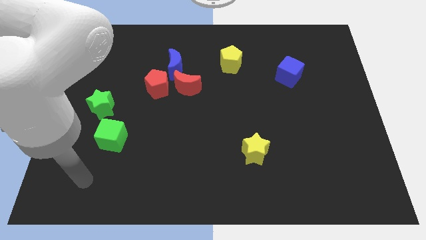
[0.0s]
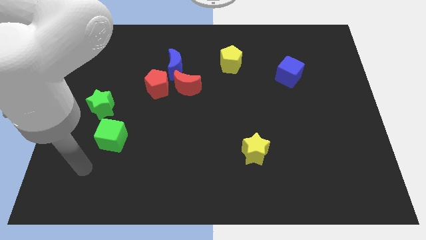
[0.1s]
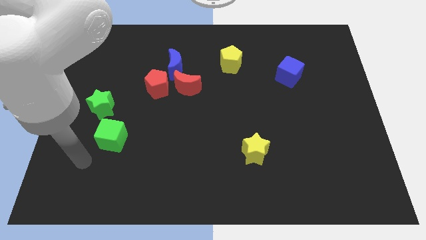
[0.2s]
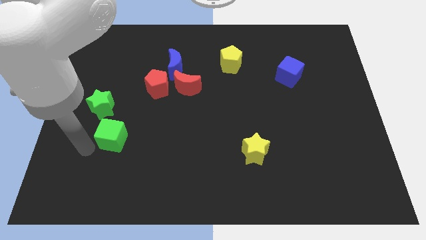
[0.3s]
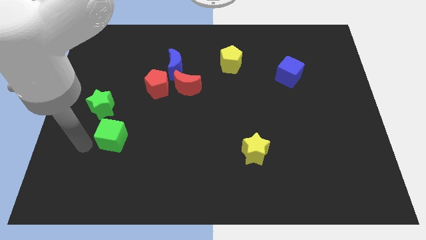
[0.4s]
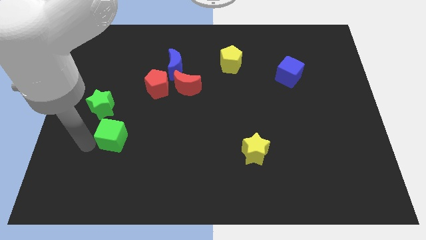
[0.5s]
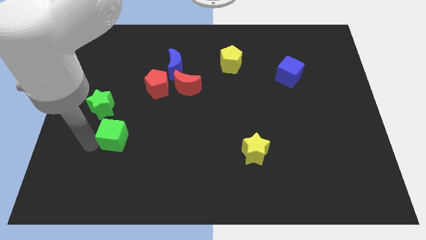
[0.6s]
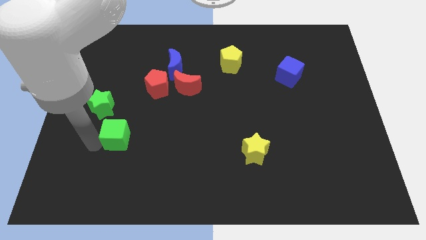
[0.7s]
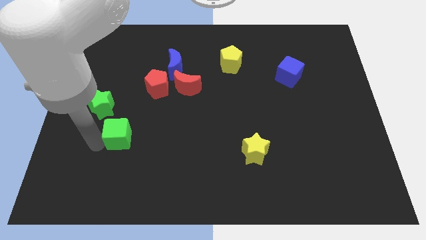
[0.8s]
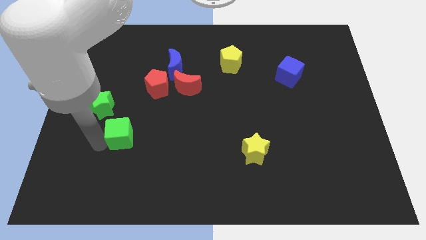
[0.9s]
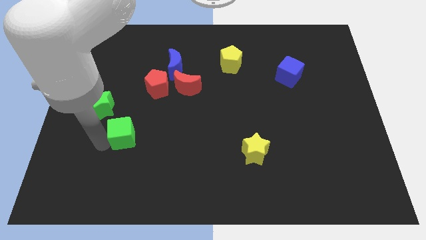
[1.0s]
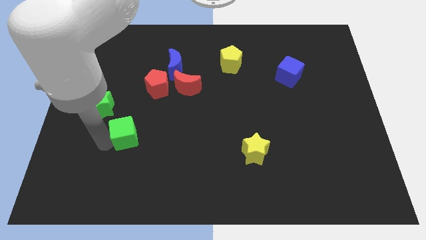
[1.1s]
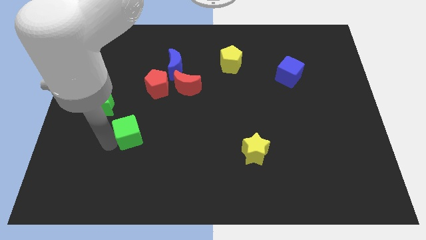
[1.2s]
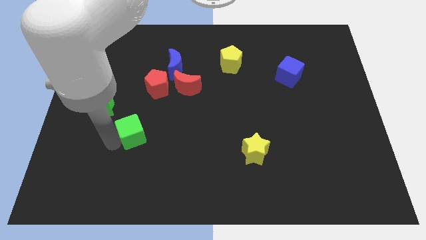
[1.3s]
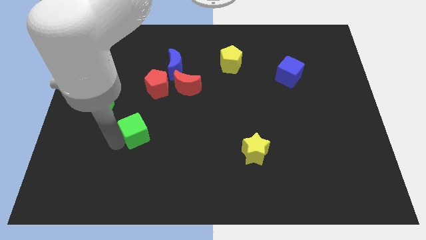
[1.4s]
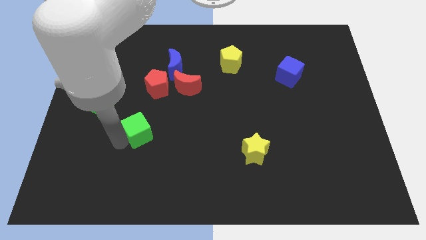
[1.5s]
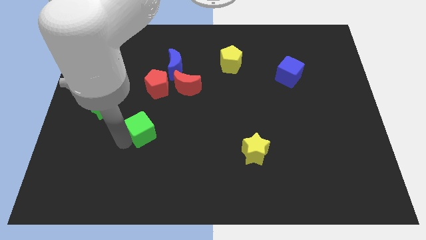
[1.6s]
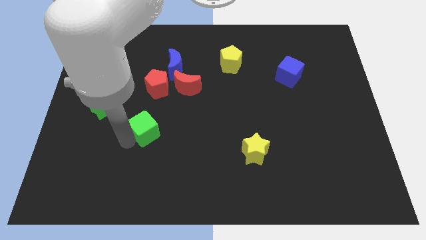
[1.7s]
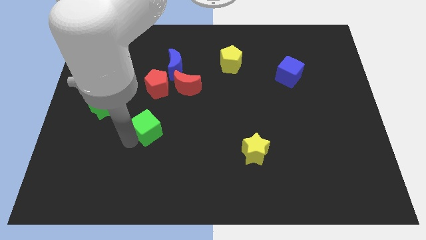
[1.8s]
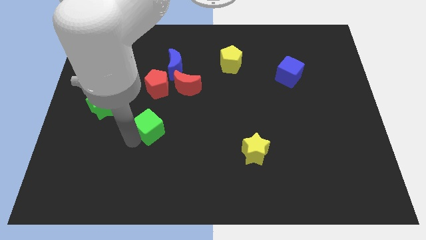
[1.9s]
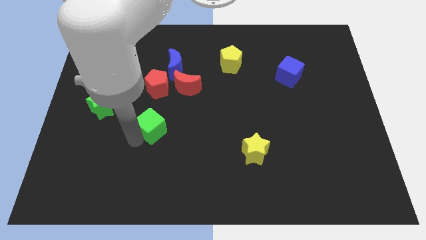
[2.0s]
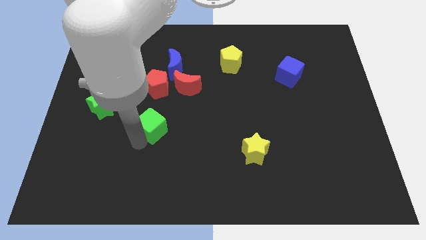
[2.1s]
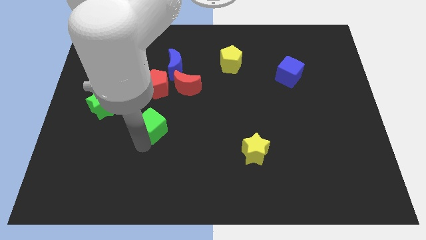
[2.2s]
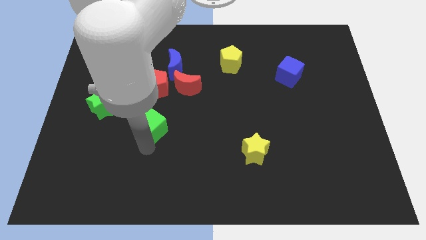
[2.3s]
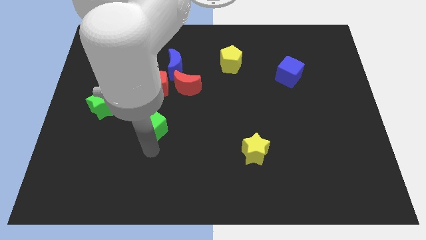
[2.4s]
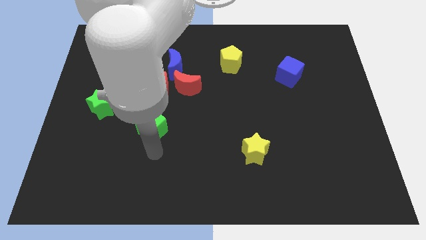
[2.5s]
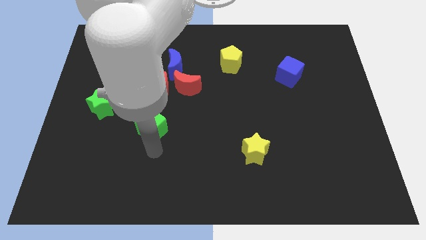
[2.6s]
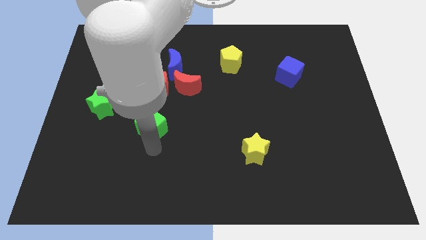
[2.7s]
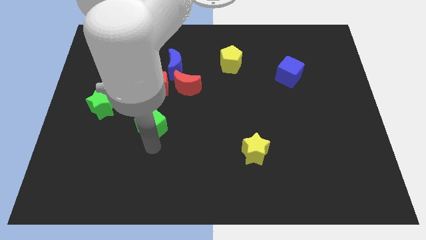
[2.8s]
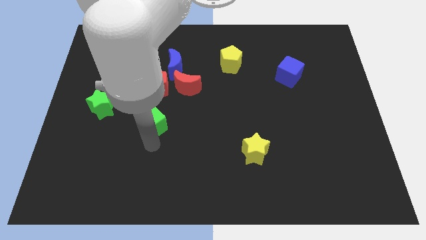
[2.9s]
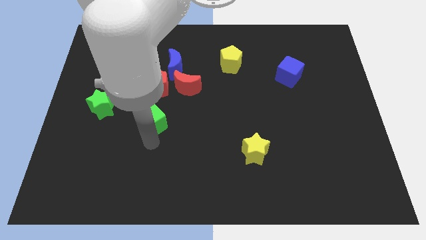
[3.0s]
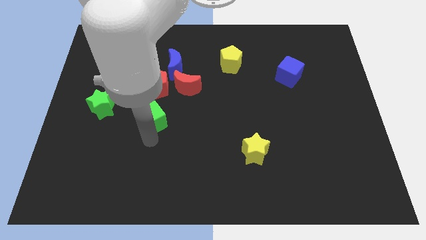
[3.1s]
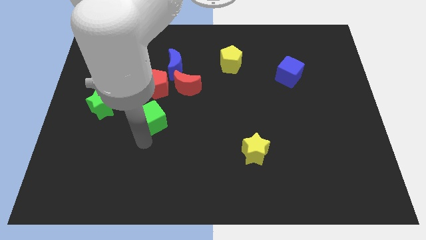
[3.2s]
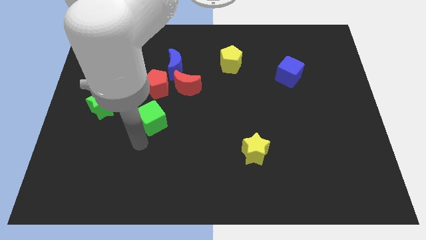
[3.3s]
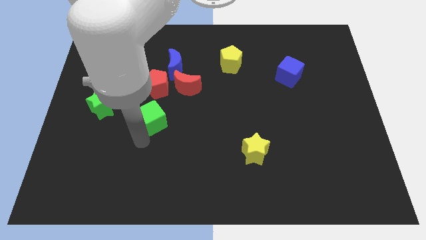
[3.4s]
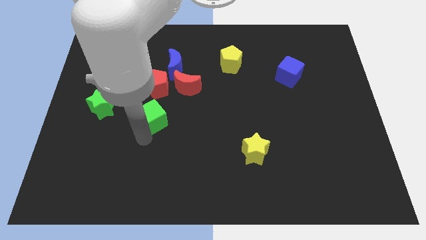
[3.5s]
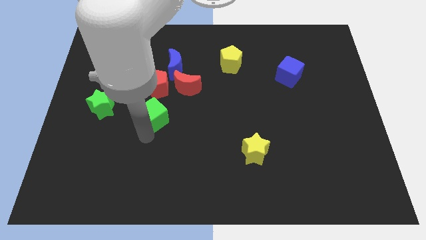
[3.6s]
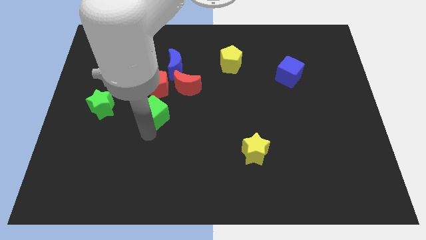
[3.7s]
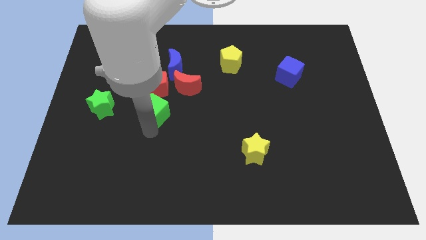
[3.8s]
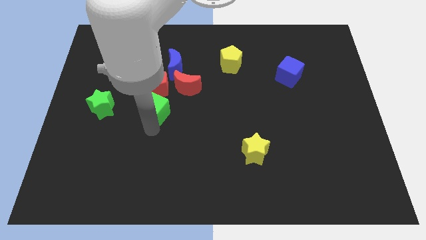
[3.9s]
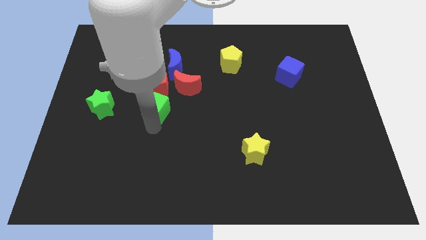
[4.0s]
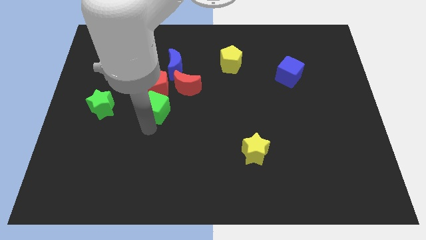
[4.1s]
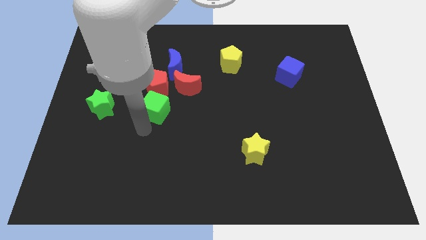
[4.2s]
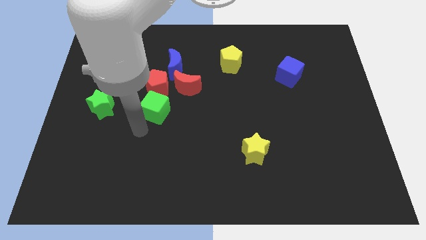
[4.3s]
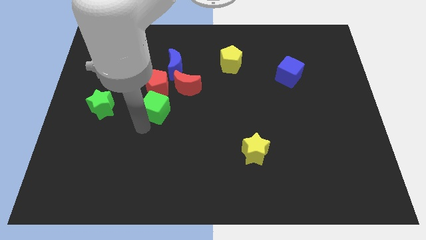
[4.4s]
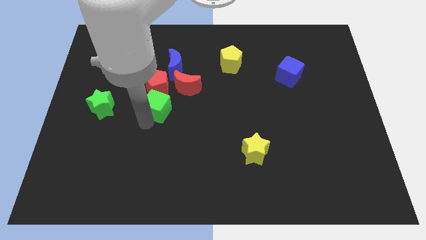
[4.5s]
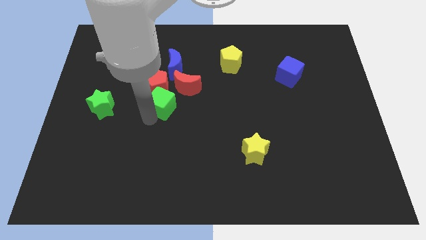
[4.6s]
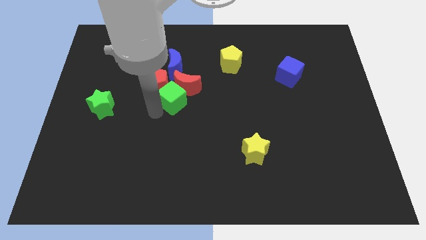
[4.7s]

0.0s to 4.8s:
move the green cube next to the red moon

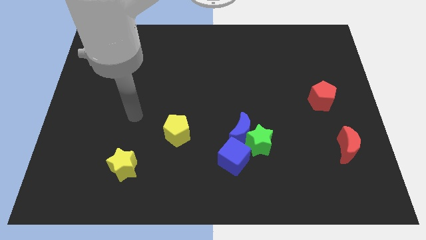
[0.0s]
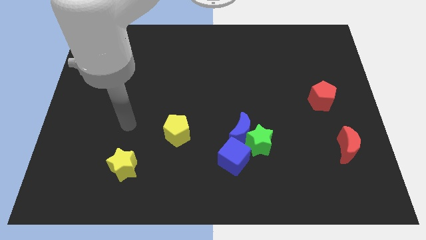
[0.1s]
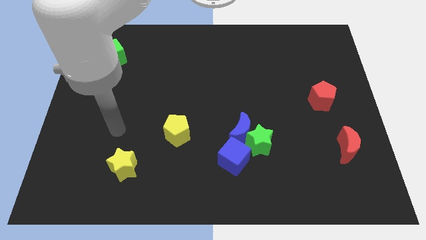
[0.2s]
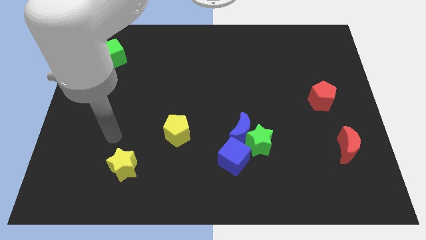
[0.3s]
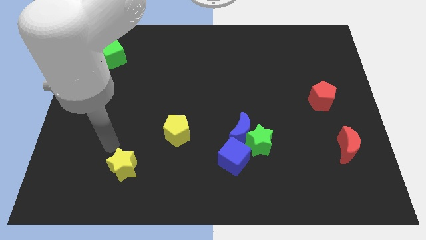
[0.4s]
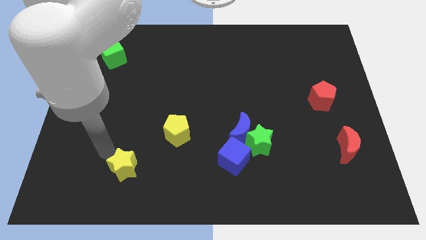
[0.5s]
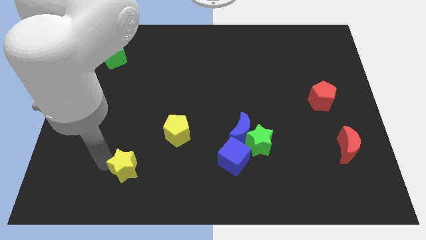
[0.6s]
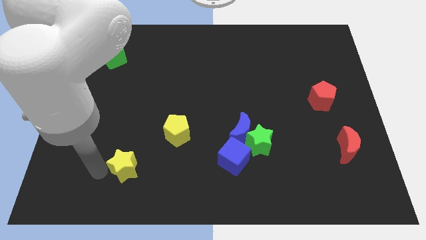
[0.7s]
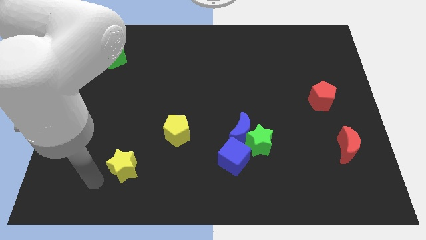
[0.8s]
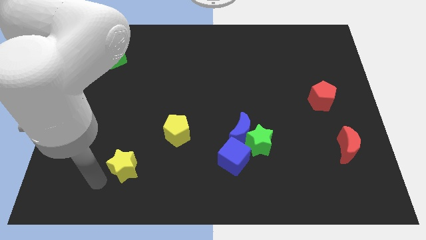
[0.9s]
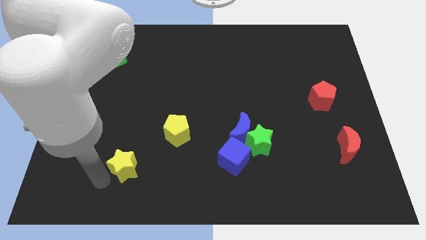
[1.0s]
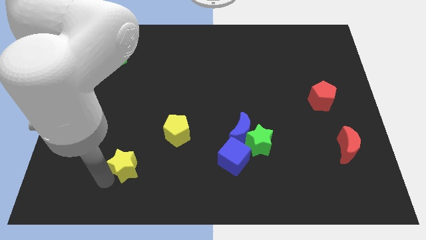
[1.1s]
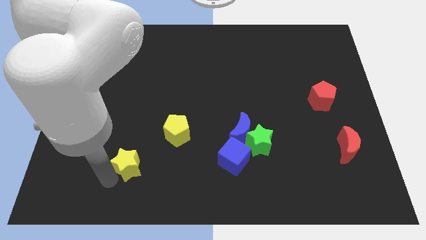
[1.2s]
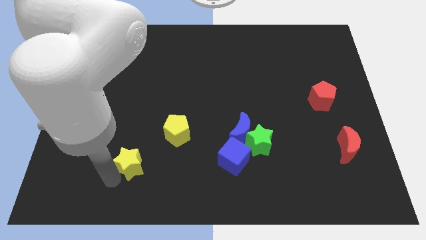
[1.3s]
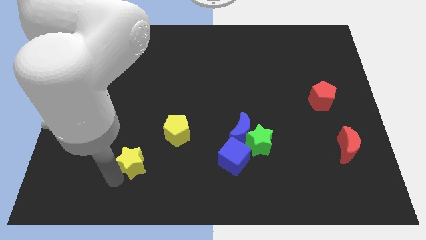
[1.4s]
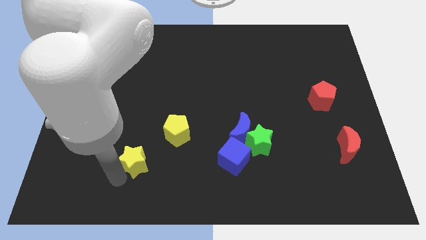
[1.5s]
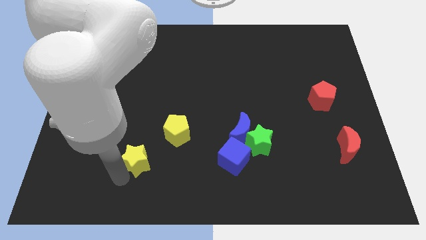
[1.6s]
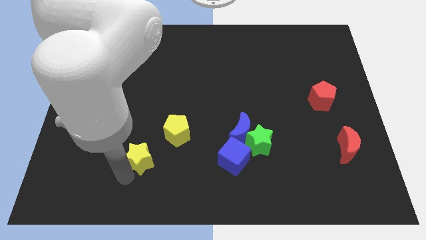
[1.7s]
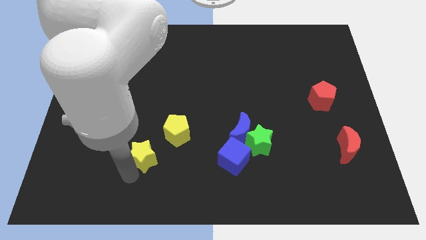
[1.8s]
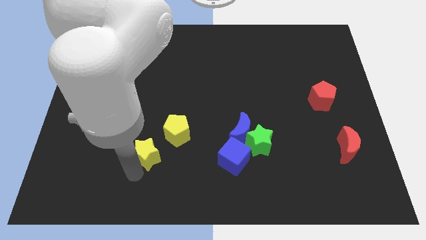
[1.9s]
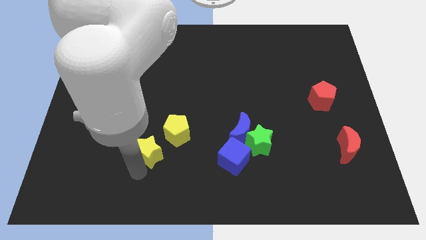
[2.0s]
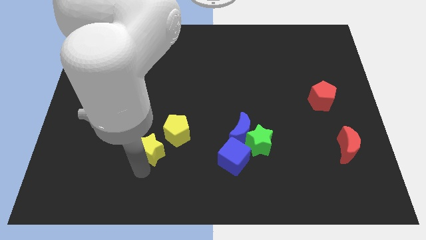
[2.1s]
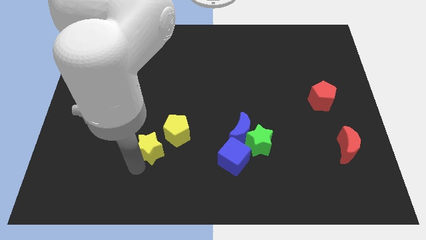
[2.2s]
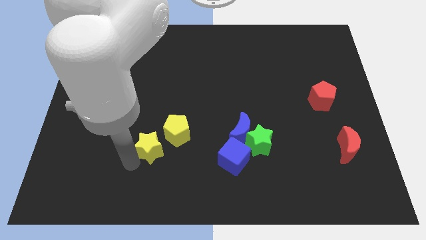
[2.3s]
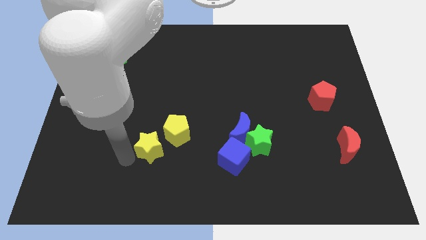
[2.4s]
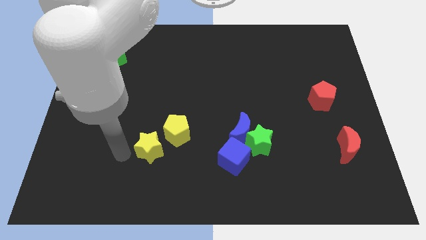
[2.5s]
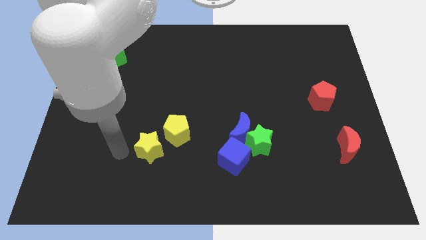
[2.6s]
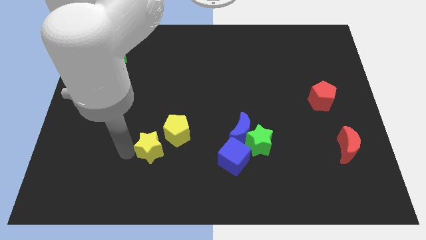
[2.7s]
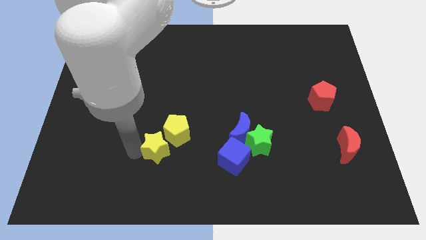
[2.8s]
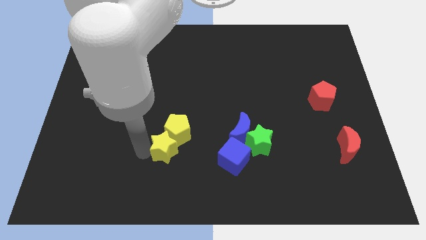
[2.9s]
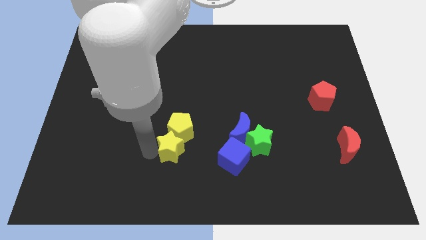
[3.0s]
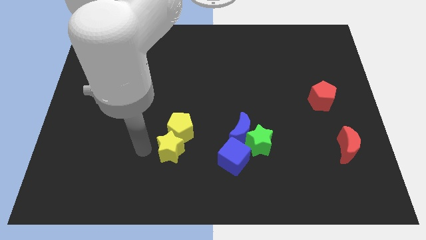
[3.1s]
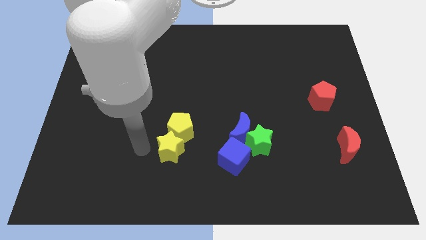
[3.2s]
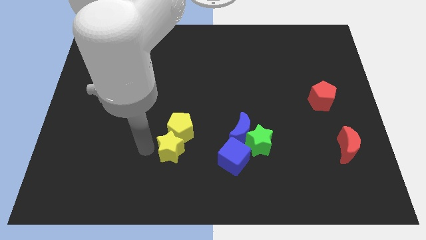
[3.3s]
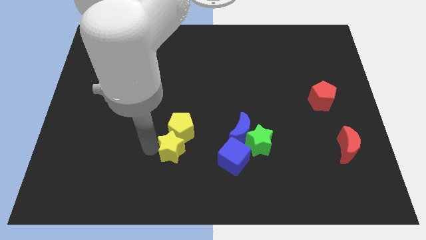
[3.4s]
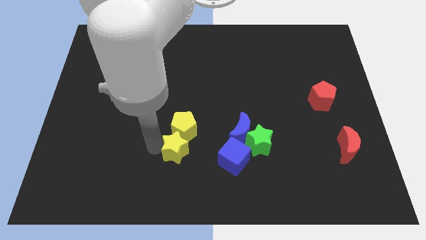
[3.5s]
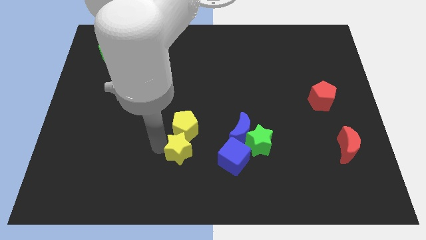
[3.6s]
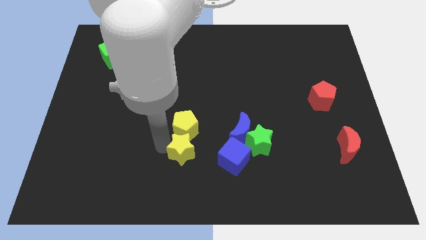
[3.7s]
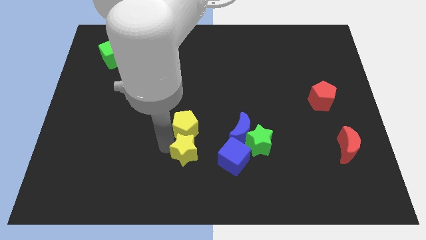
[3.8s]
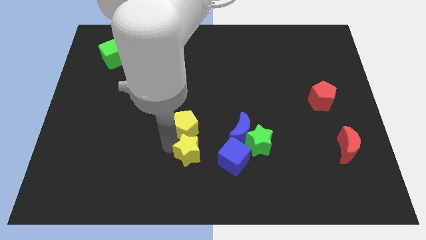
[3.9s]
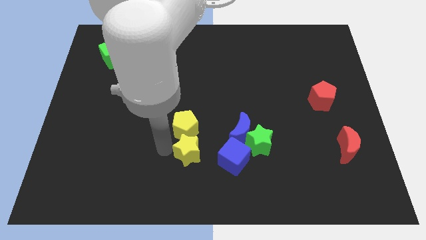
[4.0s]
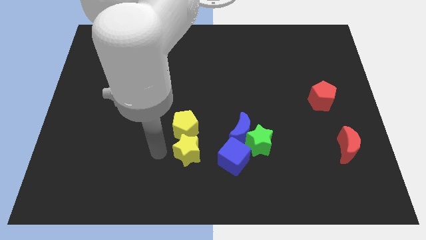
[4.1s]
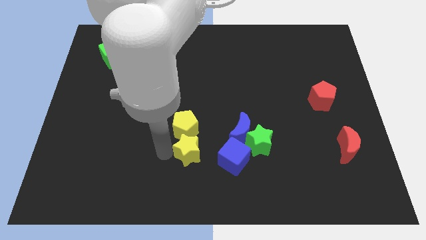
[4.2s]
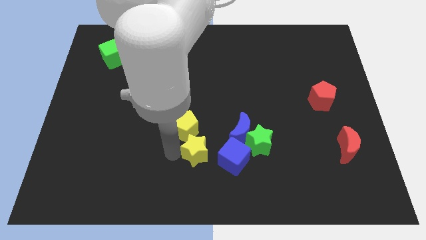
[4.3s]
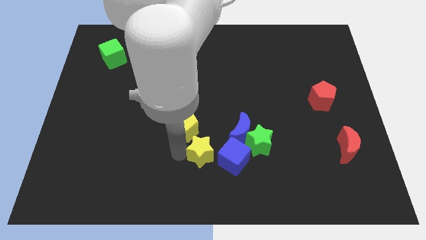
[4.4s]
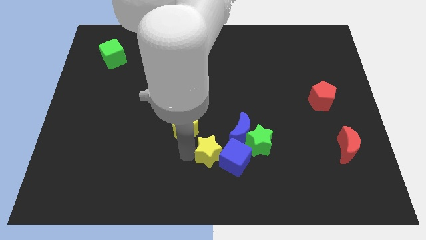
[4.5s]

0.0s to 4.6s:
slide the yellow star to the blue cube
